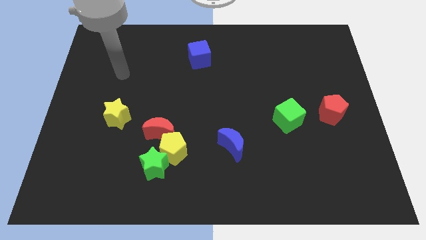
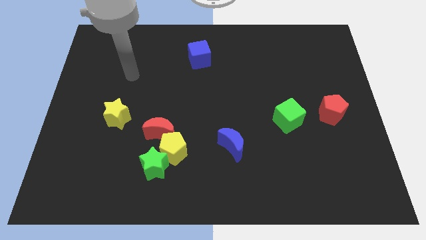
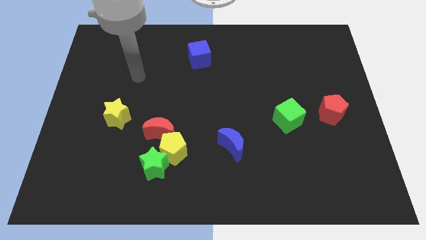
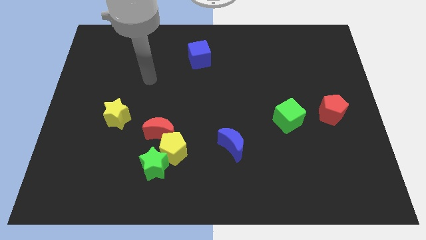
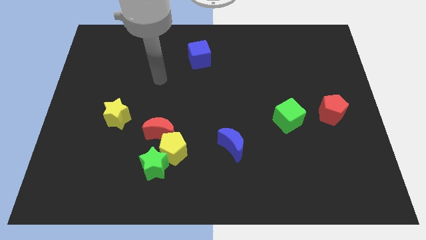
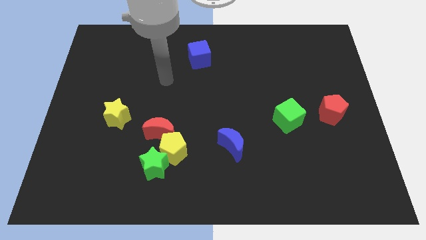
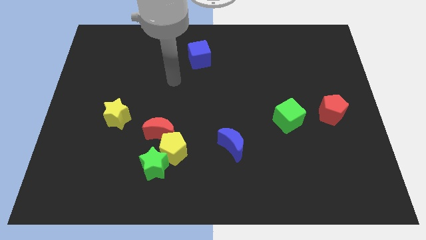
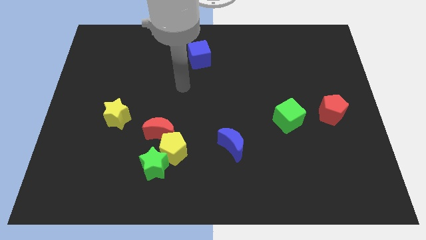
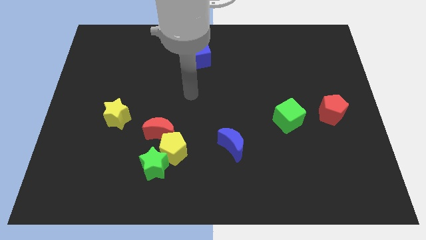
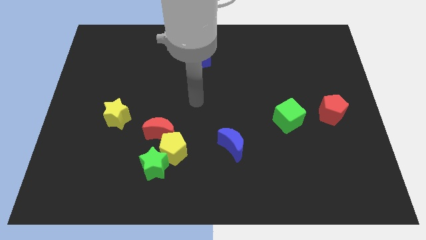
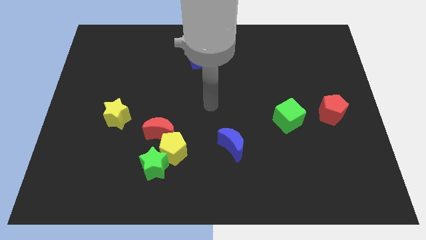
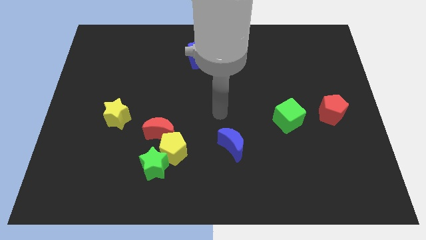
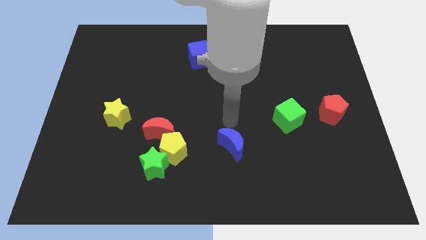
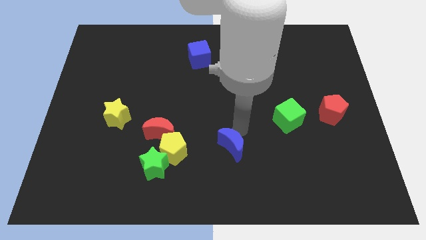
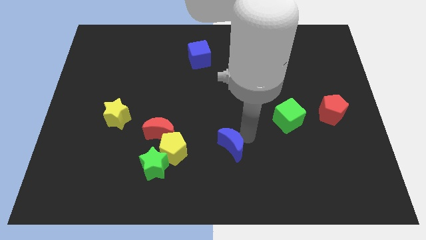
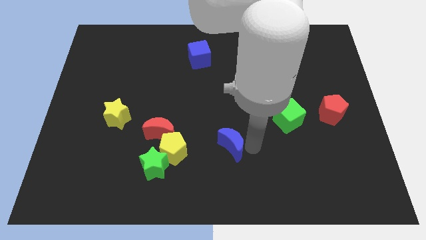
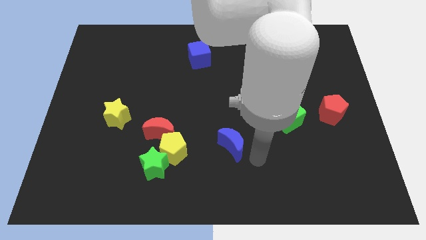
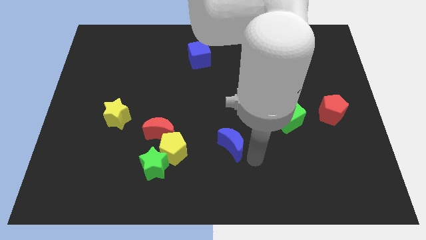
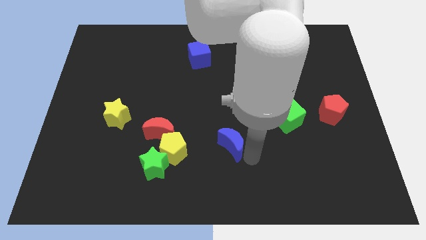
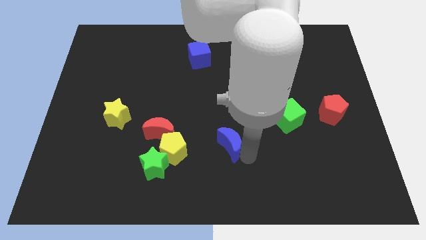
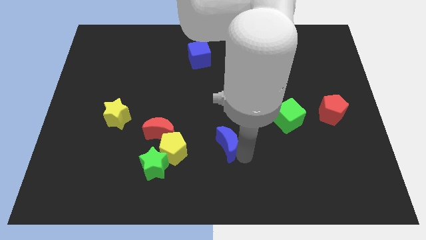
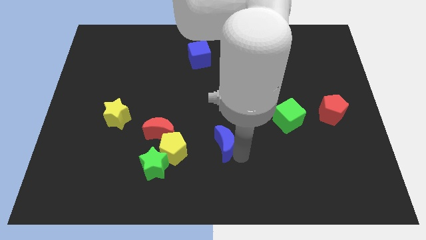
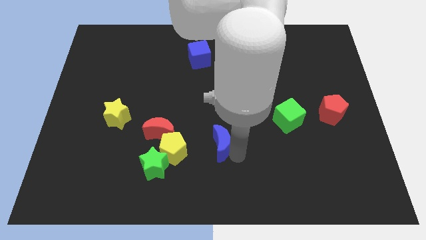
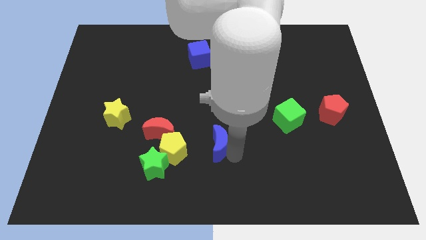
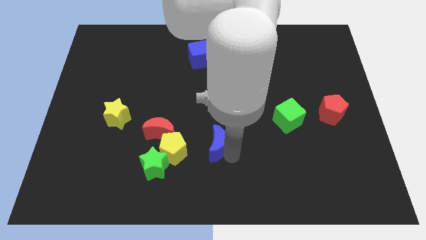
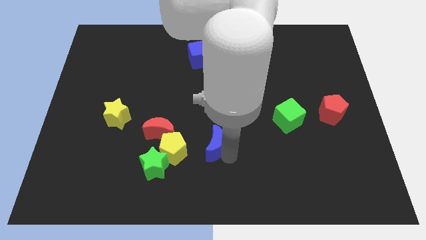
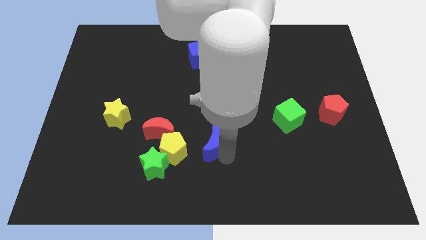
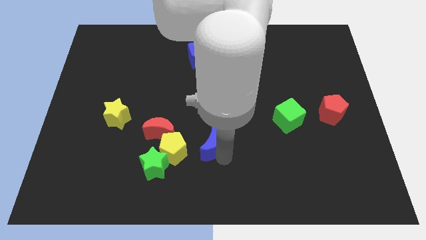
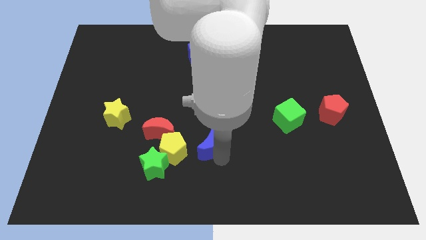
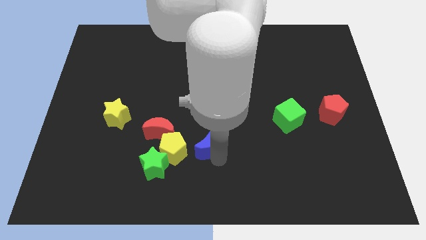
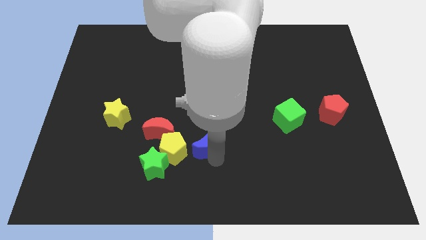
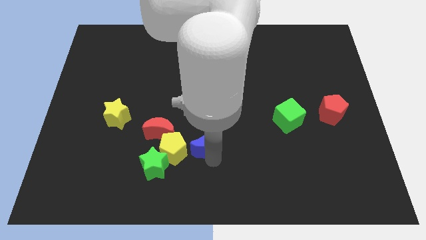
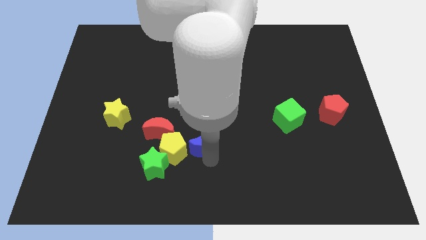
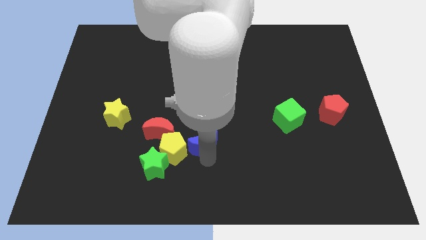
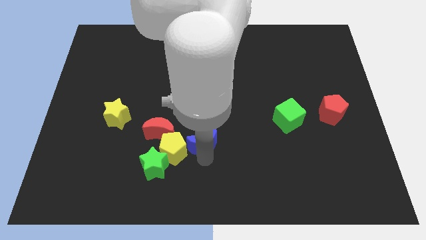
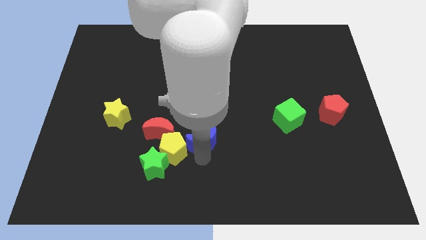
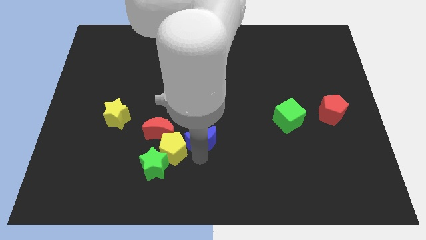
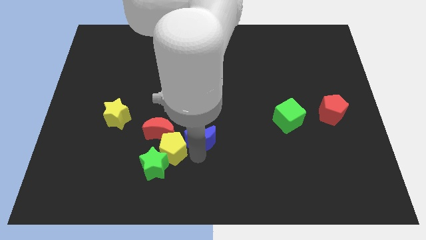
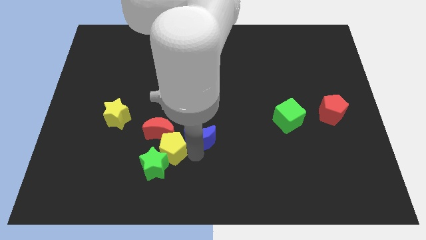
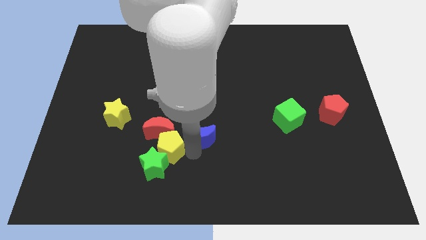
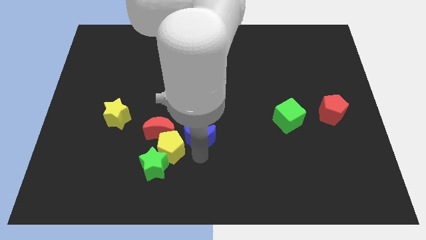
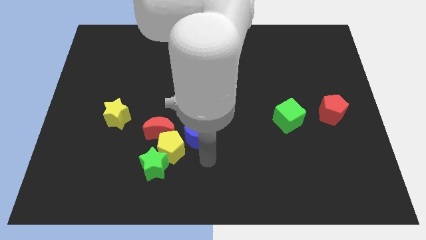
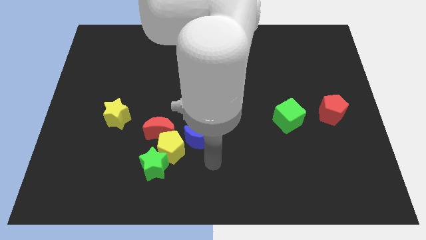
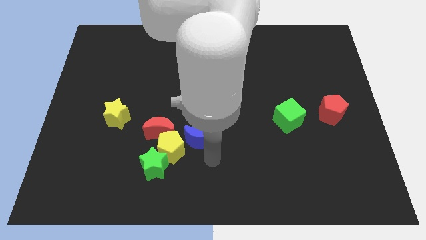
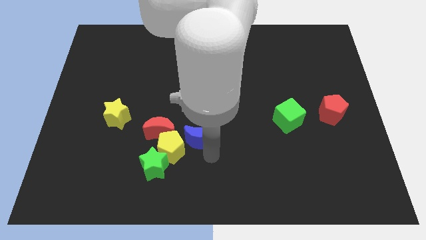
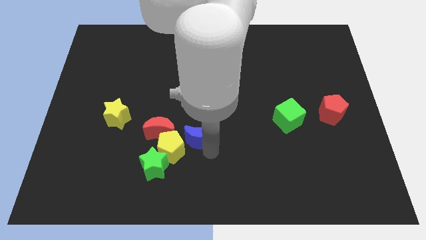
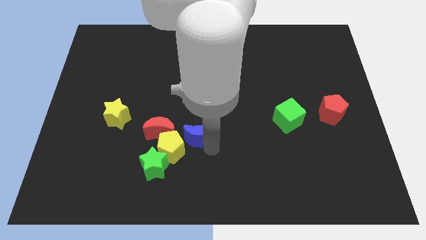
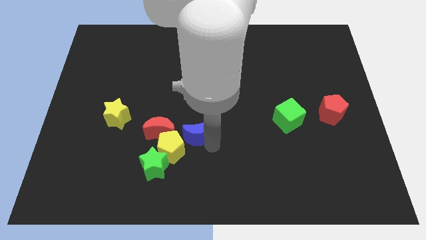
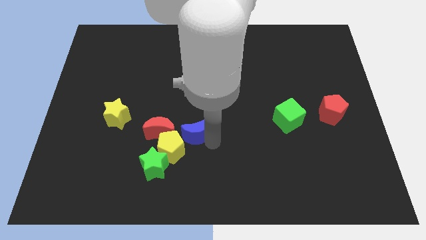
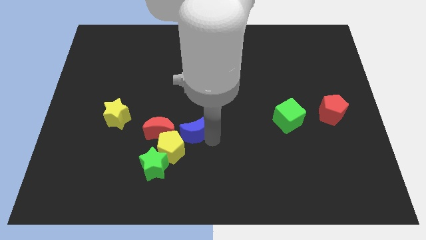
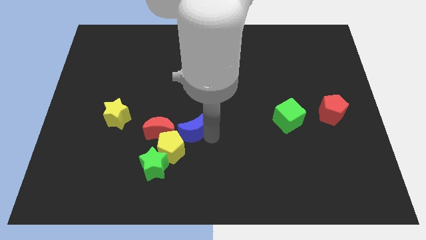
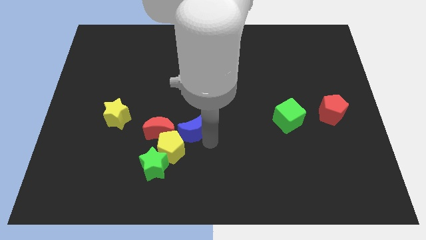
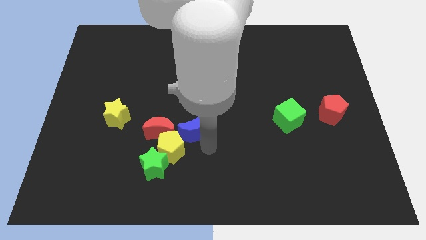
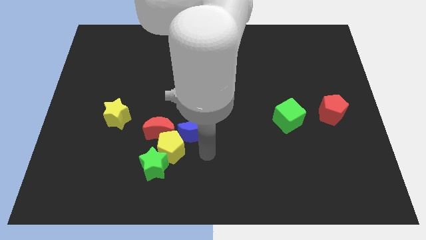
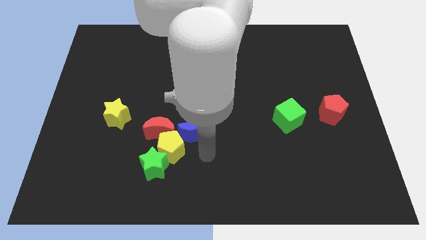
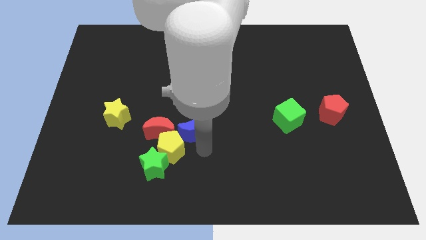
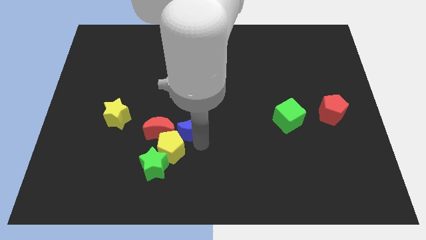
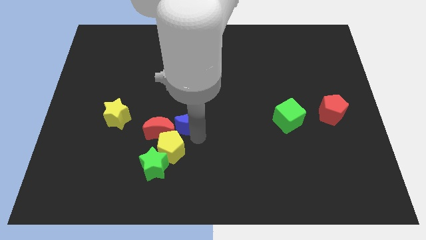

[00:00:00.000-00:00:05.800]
move the blue moon diagonally up and to the right of the red moon

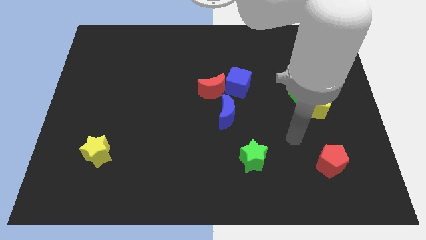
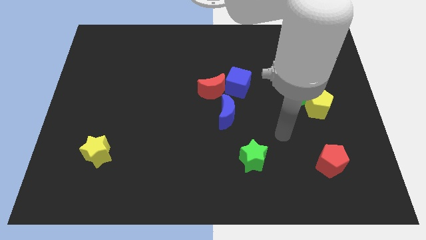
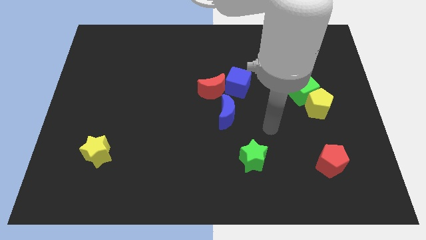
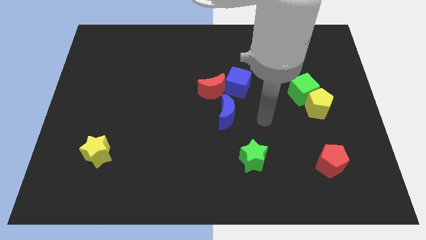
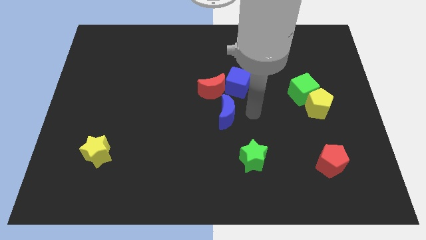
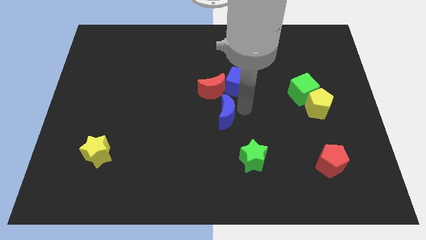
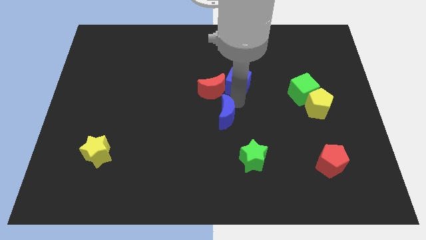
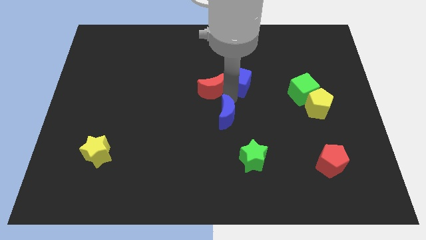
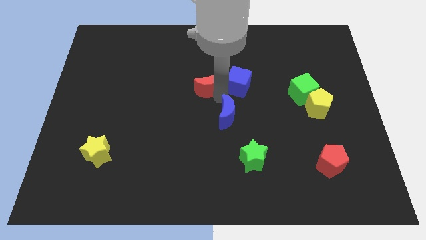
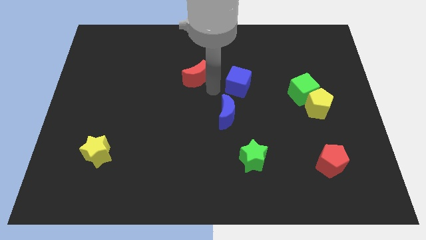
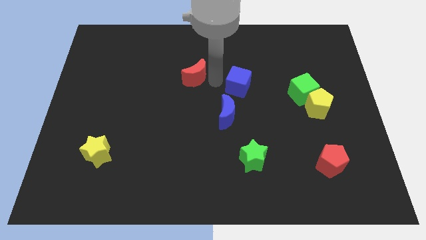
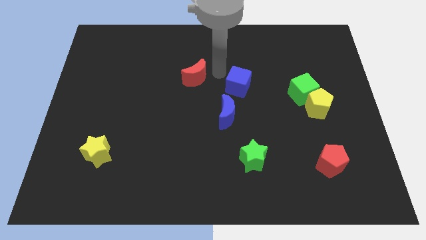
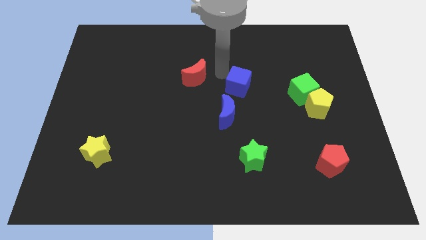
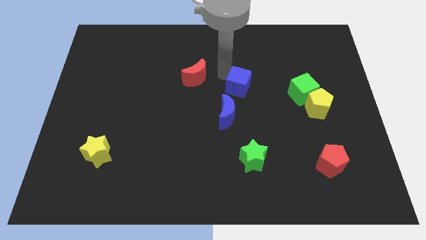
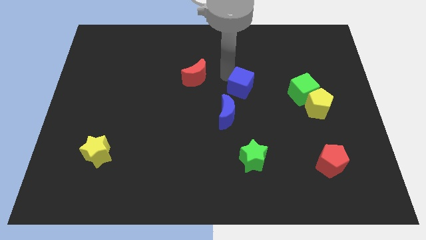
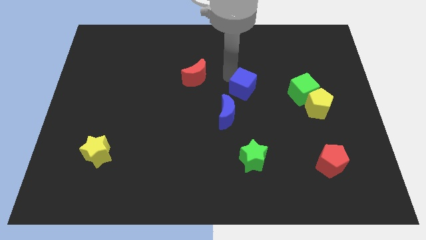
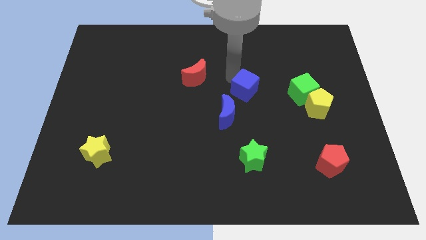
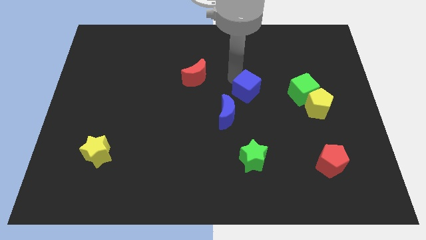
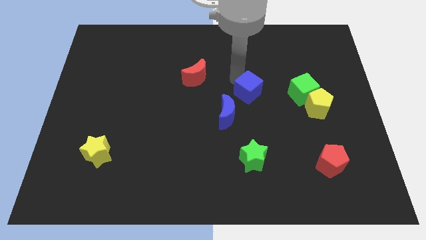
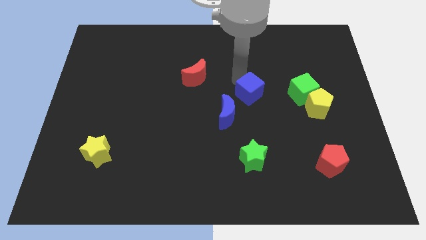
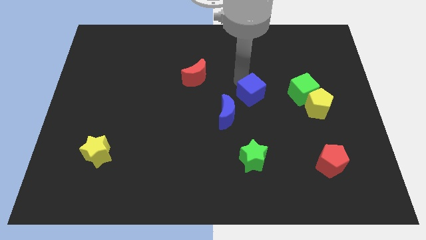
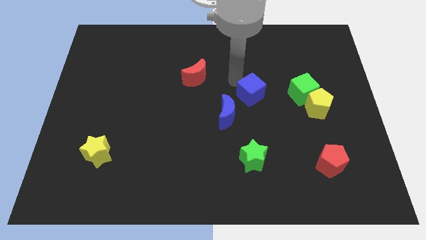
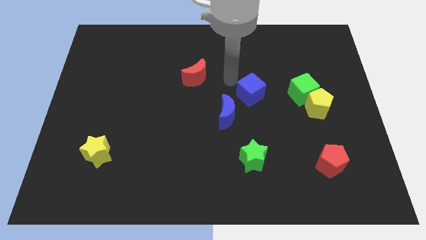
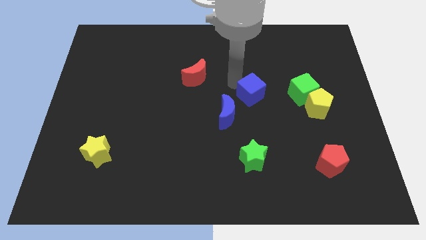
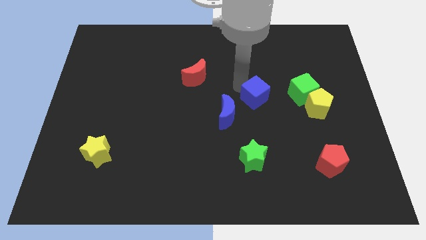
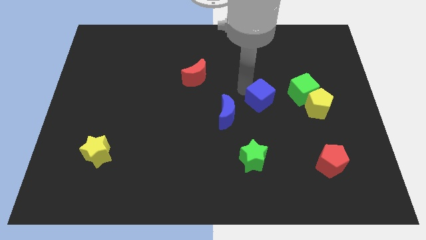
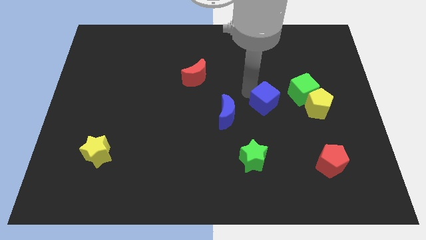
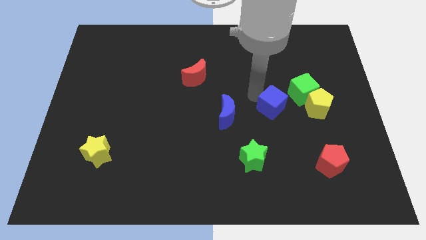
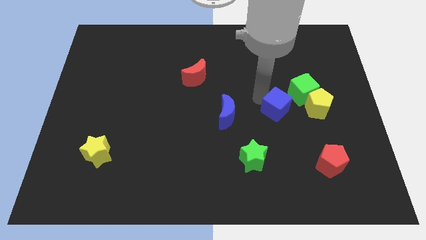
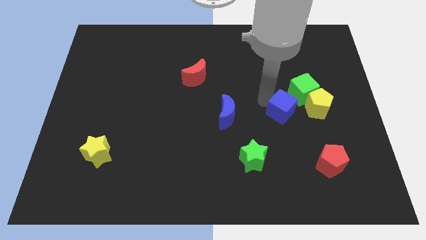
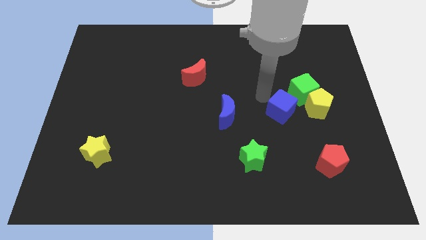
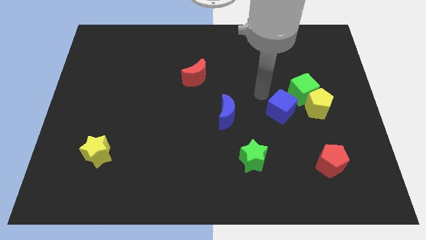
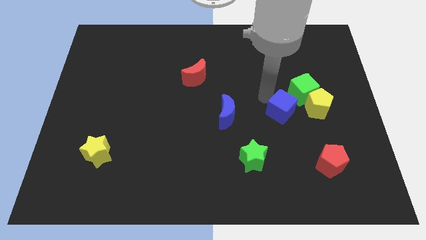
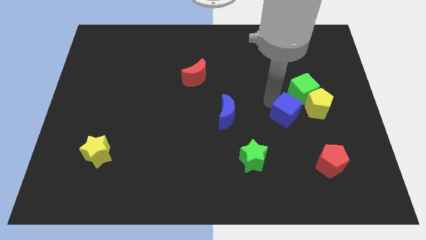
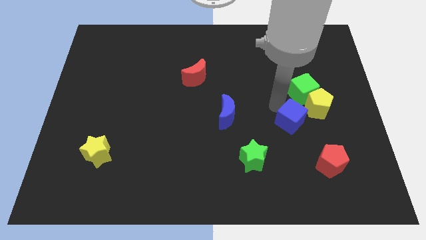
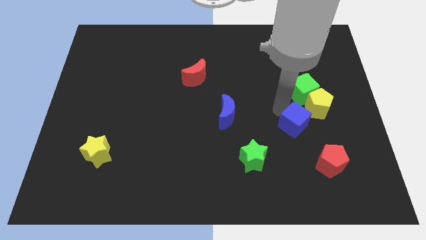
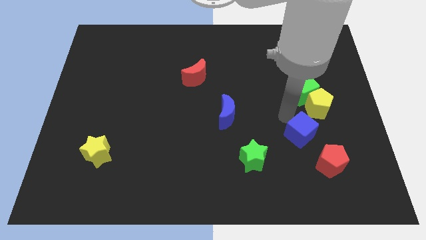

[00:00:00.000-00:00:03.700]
put the blue cube to the bottom side of the yellow pentagon
